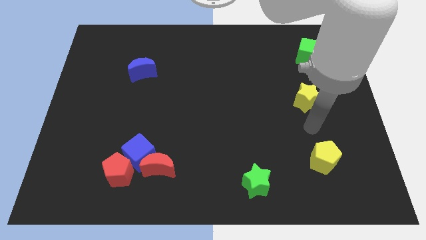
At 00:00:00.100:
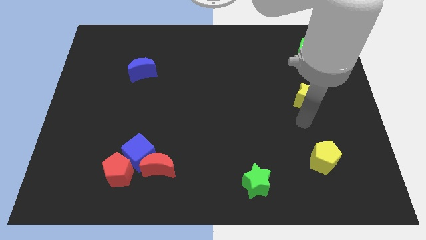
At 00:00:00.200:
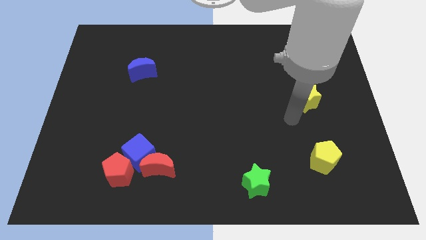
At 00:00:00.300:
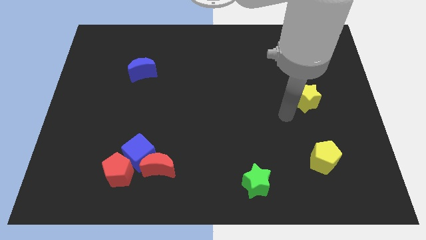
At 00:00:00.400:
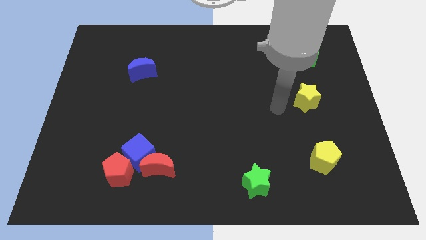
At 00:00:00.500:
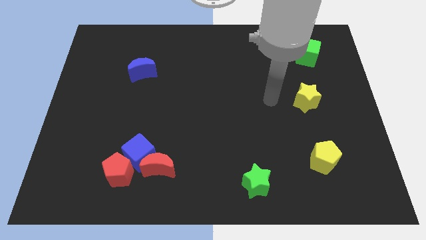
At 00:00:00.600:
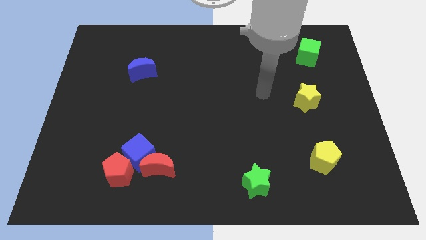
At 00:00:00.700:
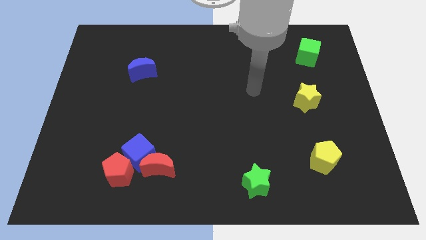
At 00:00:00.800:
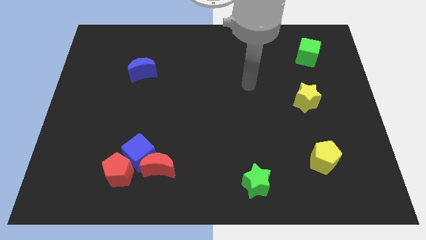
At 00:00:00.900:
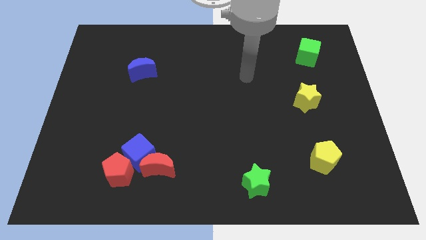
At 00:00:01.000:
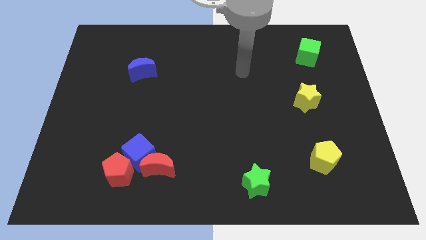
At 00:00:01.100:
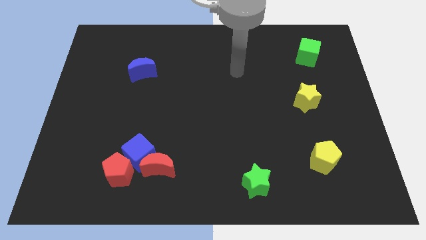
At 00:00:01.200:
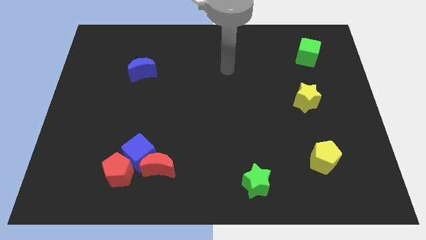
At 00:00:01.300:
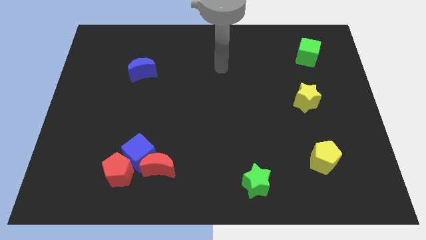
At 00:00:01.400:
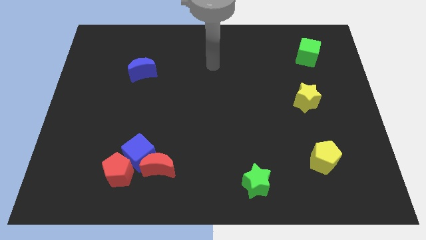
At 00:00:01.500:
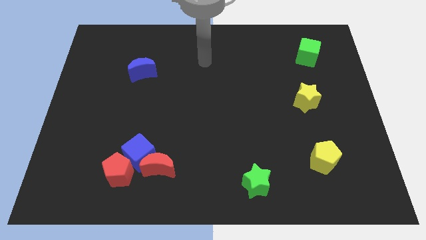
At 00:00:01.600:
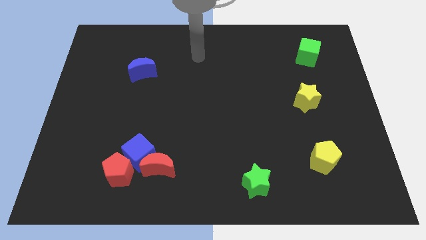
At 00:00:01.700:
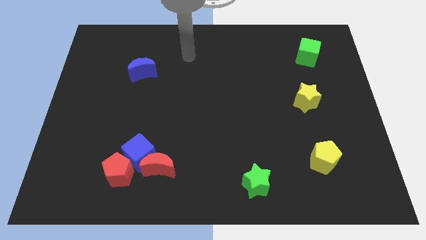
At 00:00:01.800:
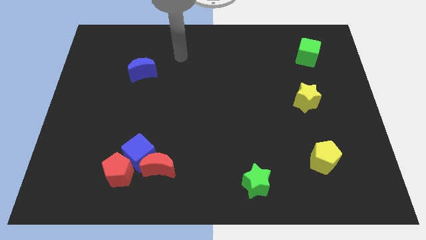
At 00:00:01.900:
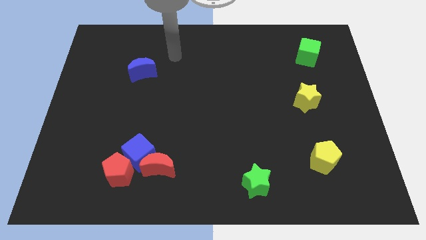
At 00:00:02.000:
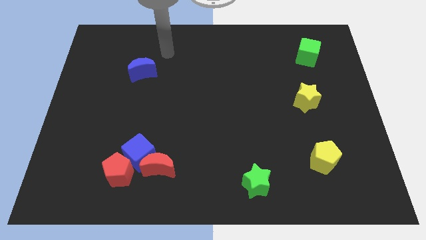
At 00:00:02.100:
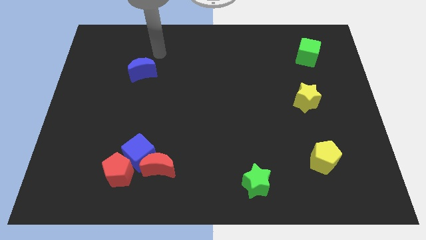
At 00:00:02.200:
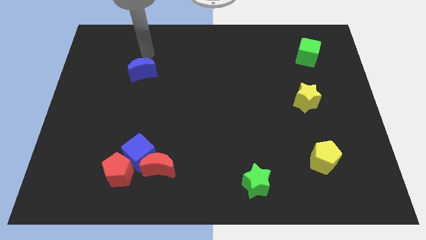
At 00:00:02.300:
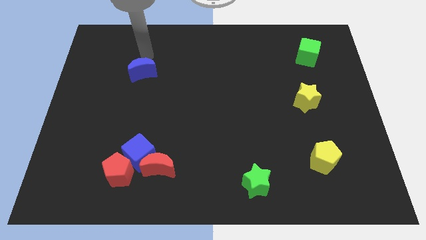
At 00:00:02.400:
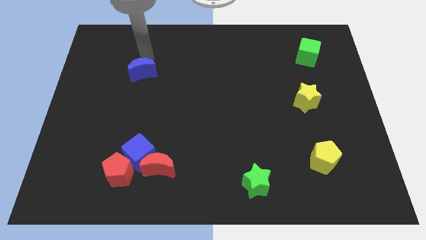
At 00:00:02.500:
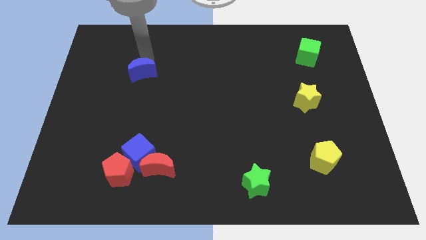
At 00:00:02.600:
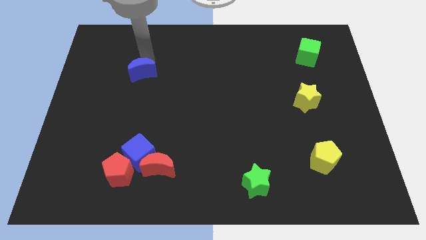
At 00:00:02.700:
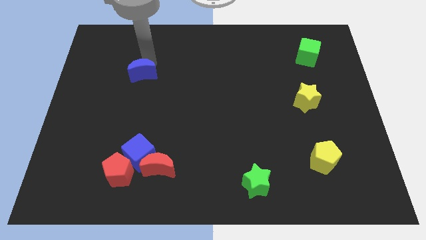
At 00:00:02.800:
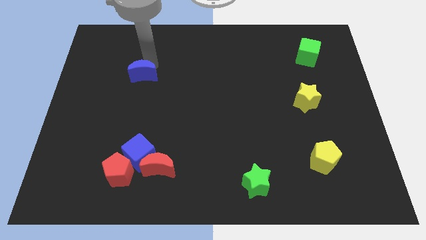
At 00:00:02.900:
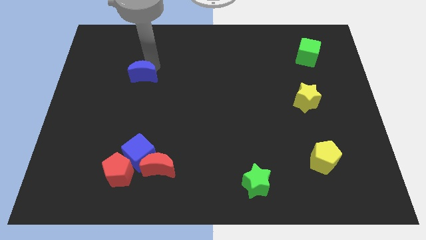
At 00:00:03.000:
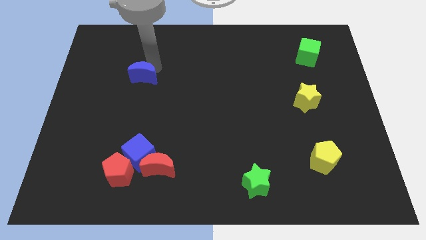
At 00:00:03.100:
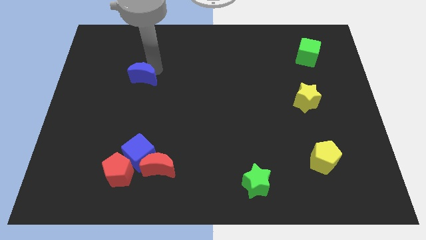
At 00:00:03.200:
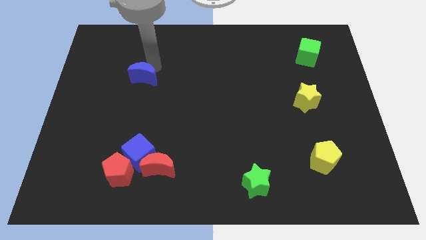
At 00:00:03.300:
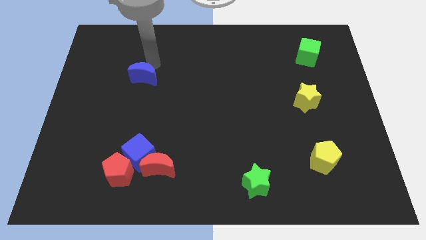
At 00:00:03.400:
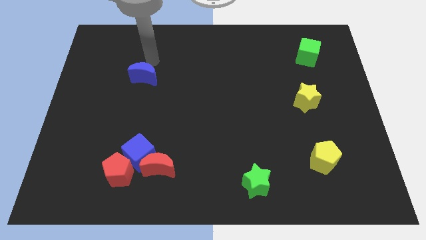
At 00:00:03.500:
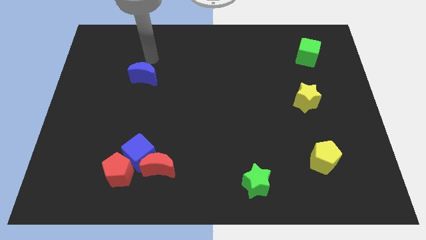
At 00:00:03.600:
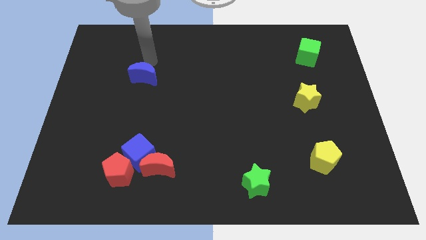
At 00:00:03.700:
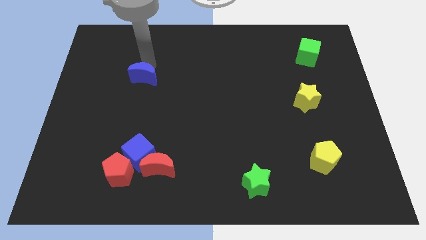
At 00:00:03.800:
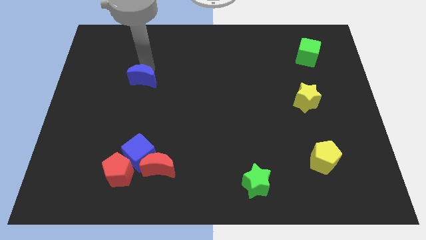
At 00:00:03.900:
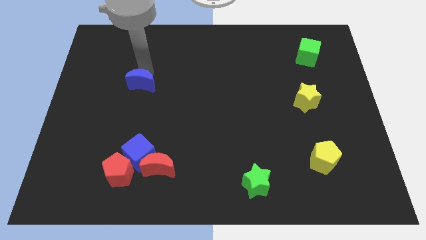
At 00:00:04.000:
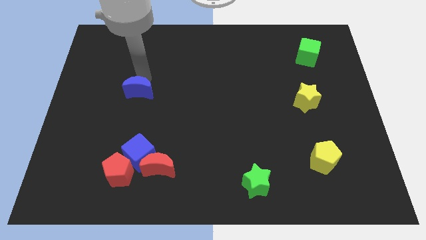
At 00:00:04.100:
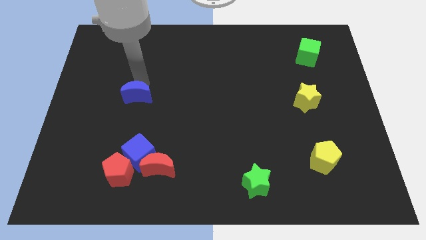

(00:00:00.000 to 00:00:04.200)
slightly push the blue moon down

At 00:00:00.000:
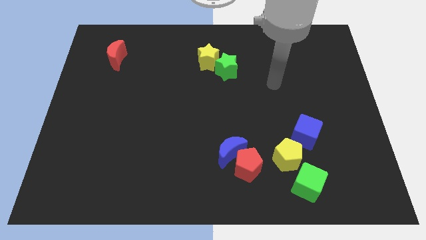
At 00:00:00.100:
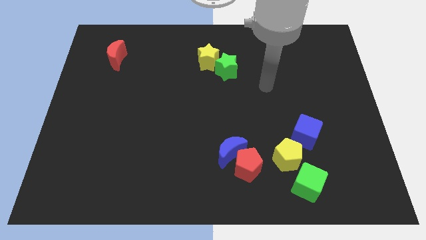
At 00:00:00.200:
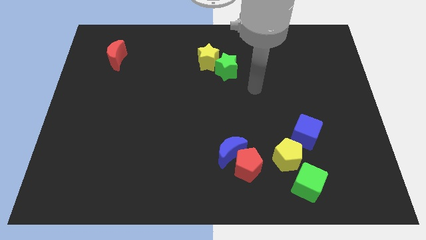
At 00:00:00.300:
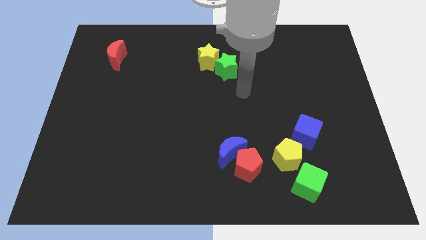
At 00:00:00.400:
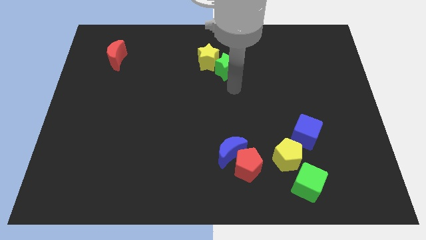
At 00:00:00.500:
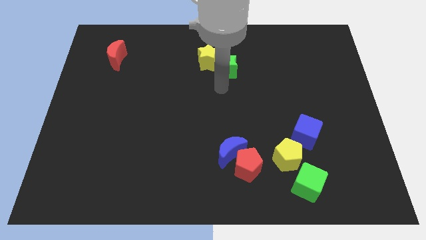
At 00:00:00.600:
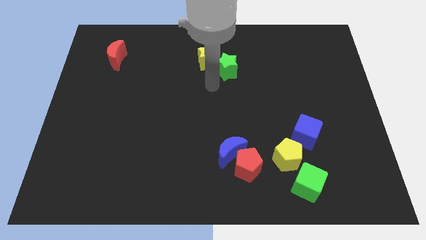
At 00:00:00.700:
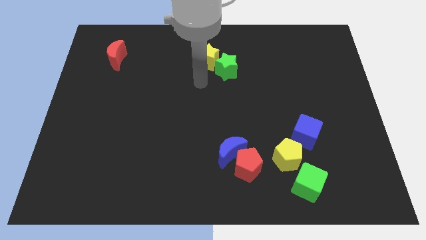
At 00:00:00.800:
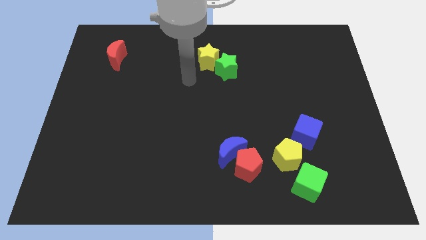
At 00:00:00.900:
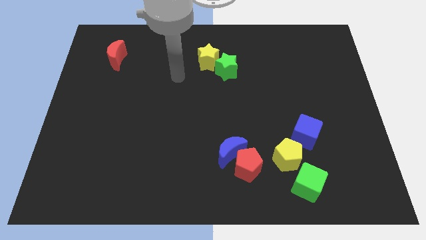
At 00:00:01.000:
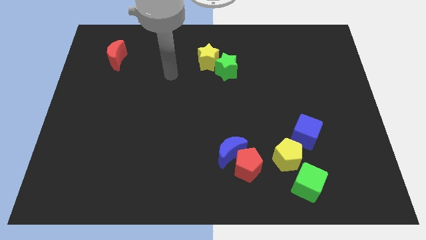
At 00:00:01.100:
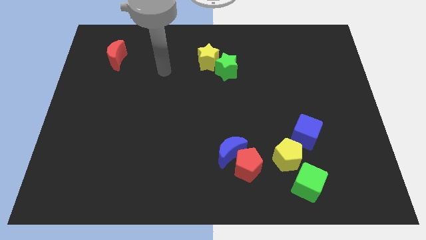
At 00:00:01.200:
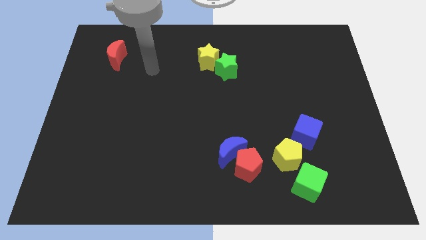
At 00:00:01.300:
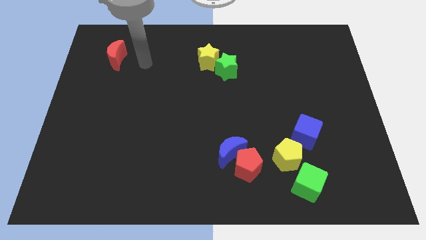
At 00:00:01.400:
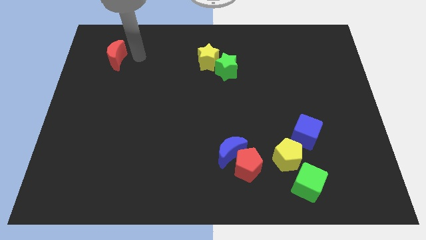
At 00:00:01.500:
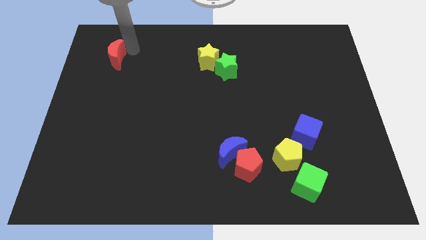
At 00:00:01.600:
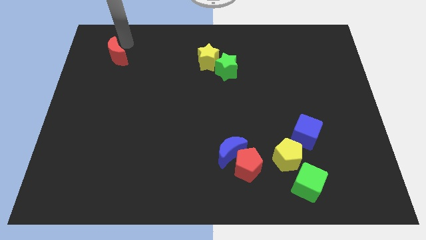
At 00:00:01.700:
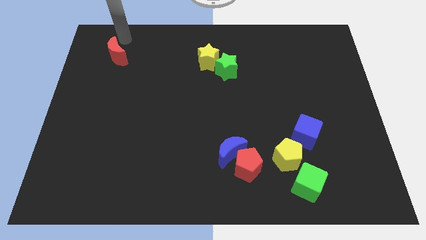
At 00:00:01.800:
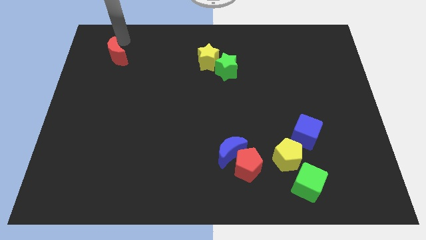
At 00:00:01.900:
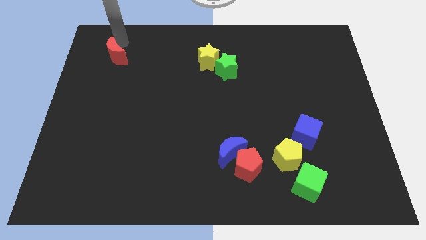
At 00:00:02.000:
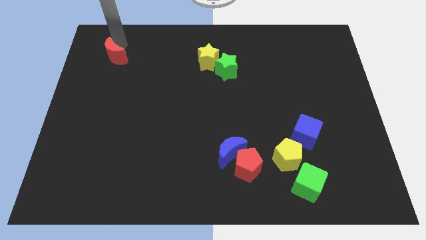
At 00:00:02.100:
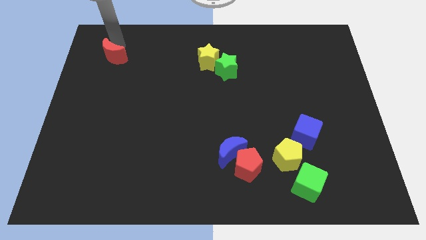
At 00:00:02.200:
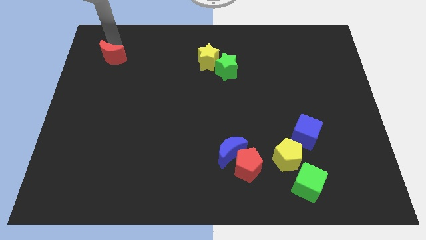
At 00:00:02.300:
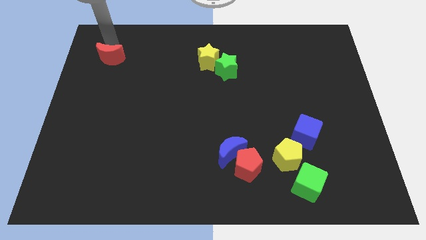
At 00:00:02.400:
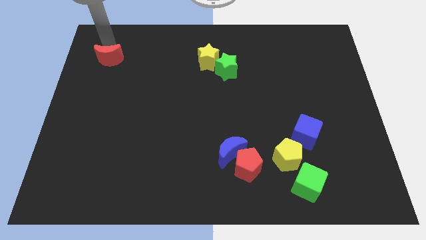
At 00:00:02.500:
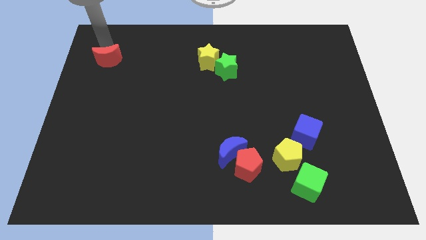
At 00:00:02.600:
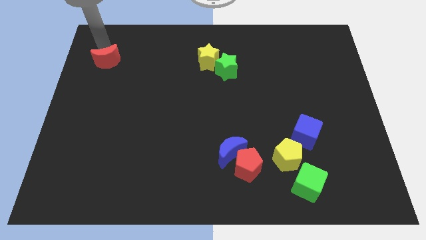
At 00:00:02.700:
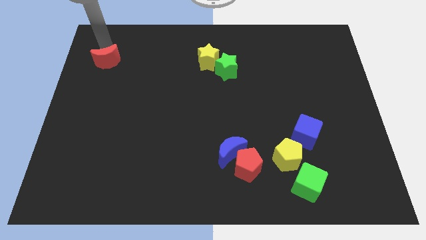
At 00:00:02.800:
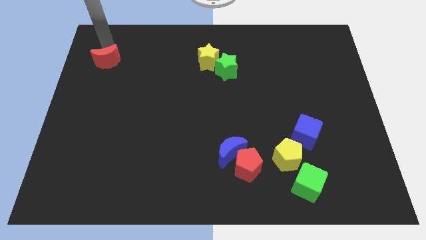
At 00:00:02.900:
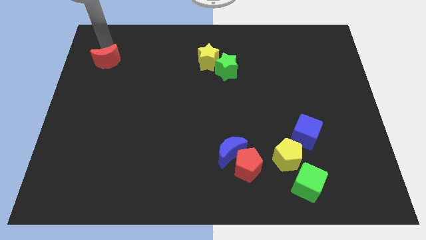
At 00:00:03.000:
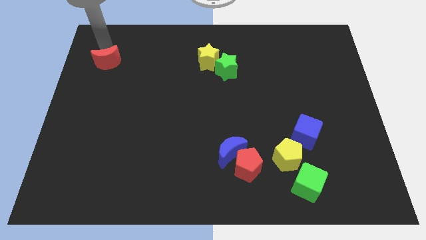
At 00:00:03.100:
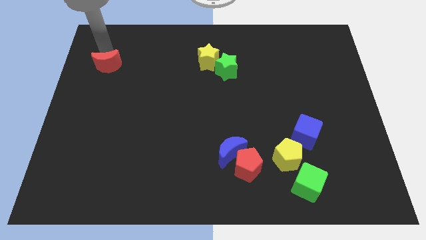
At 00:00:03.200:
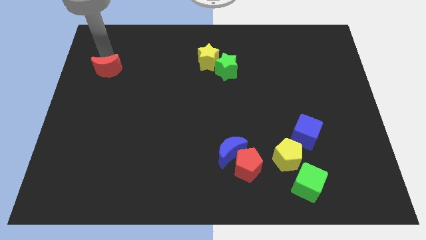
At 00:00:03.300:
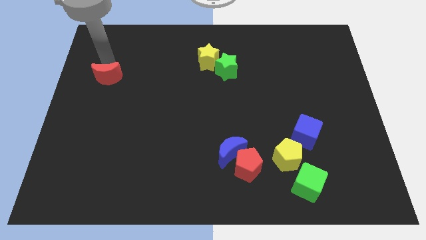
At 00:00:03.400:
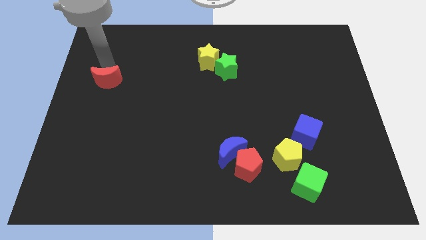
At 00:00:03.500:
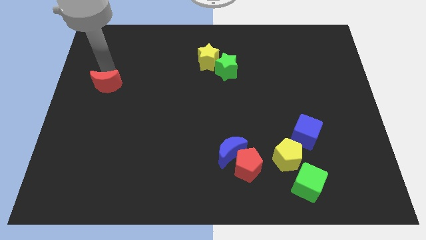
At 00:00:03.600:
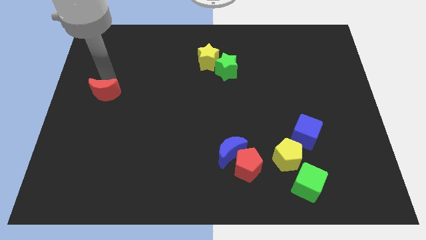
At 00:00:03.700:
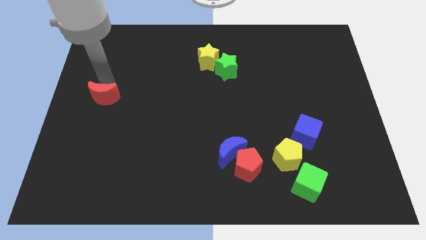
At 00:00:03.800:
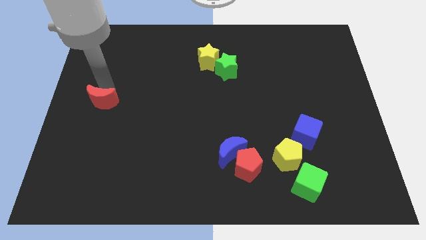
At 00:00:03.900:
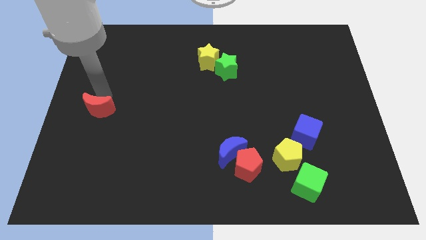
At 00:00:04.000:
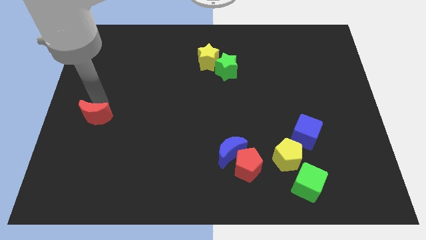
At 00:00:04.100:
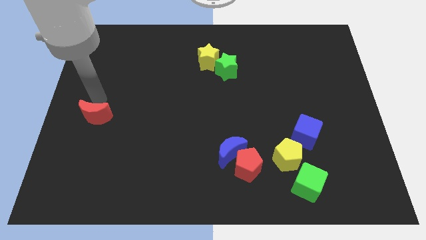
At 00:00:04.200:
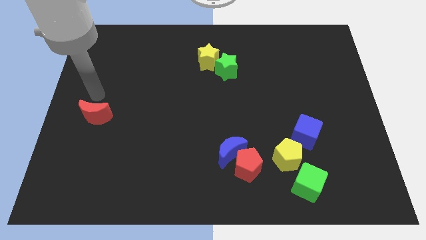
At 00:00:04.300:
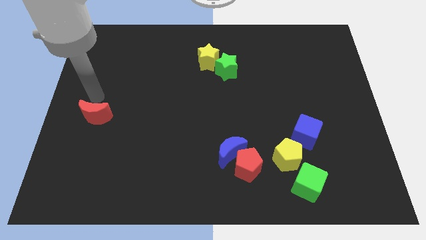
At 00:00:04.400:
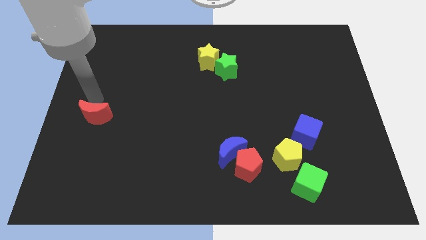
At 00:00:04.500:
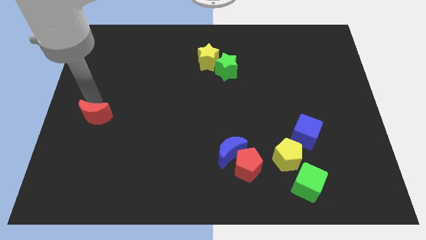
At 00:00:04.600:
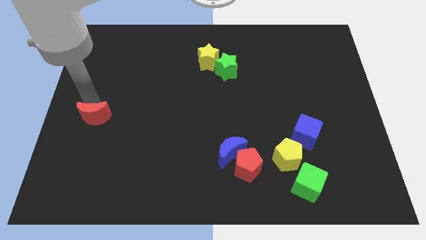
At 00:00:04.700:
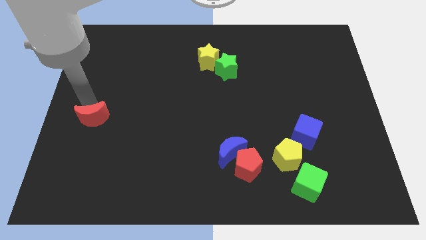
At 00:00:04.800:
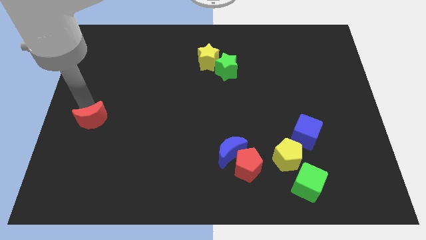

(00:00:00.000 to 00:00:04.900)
move the red moon down
